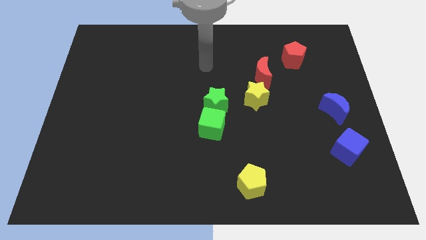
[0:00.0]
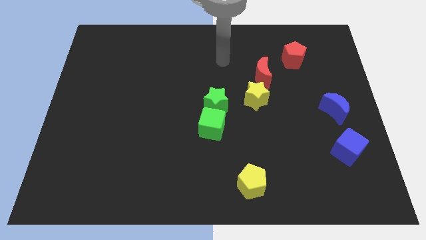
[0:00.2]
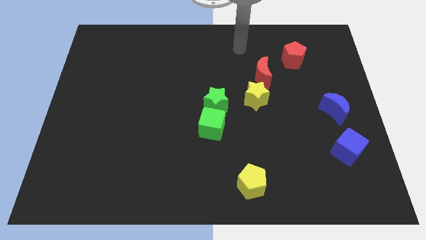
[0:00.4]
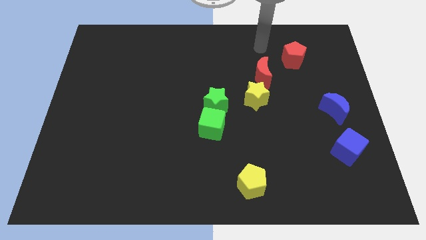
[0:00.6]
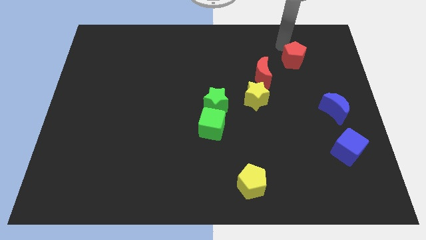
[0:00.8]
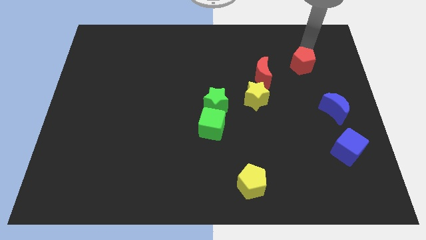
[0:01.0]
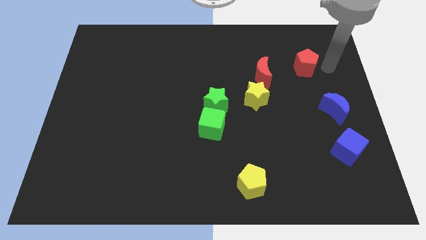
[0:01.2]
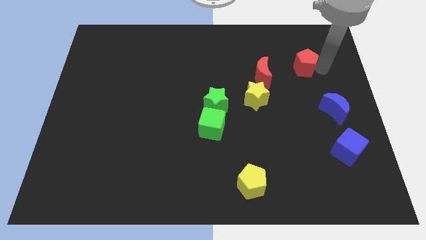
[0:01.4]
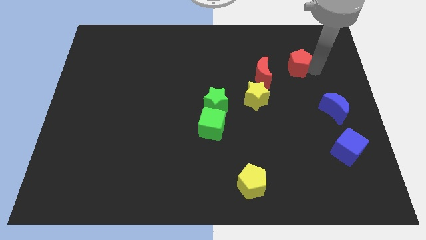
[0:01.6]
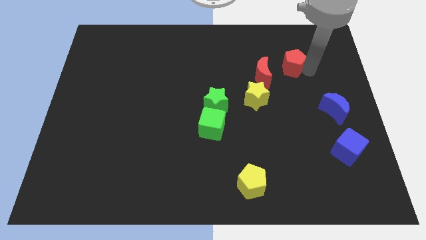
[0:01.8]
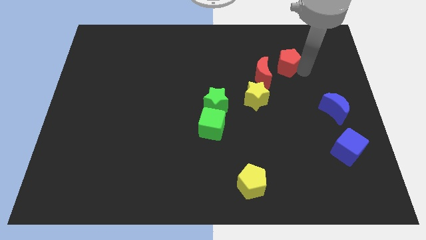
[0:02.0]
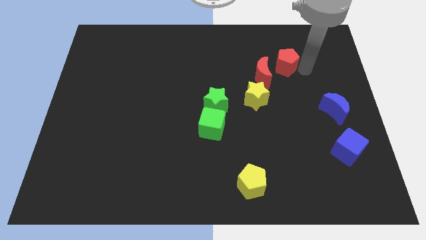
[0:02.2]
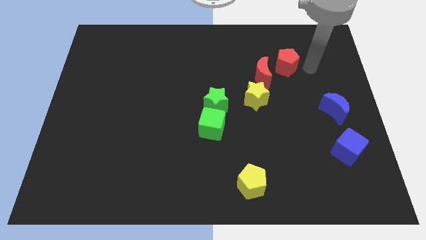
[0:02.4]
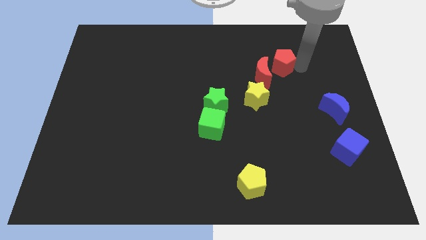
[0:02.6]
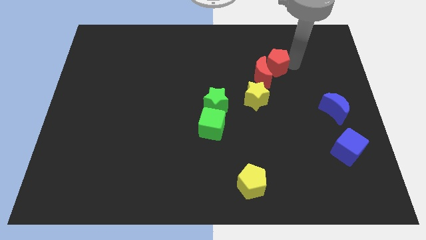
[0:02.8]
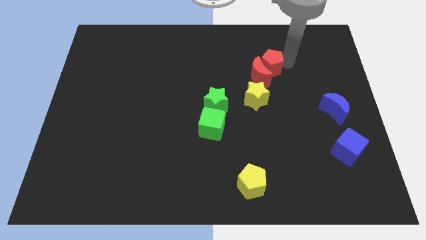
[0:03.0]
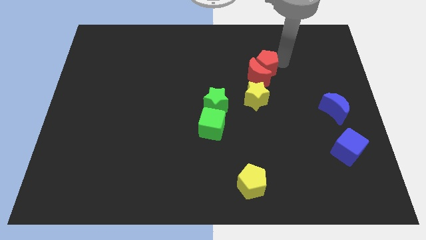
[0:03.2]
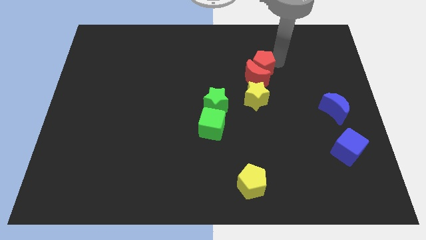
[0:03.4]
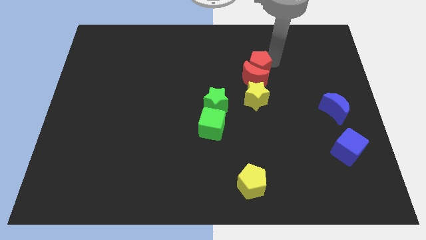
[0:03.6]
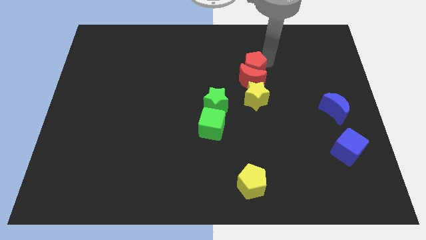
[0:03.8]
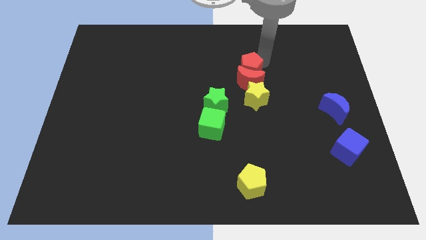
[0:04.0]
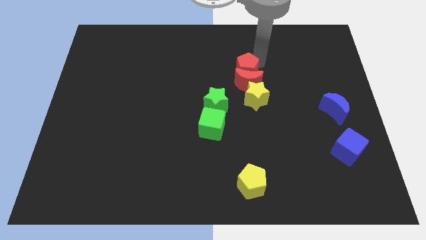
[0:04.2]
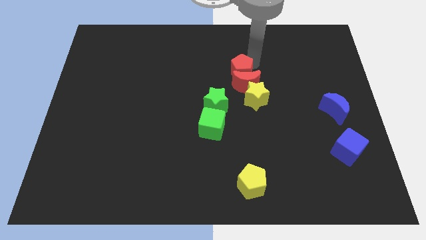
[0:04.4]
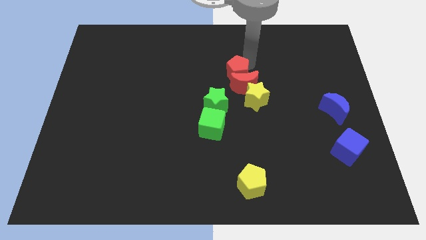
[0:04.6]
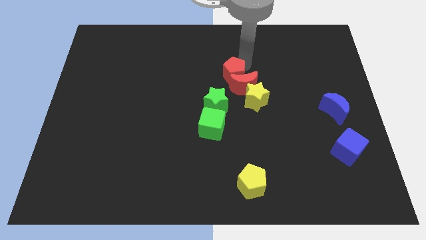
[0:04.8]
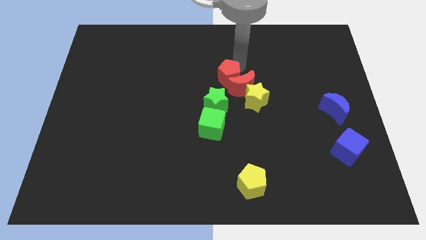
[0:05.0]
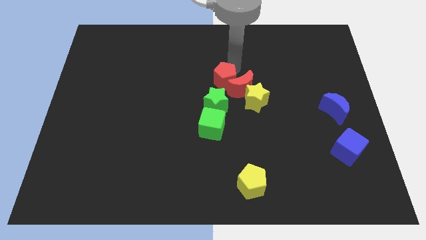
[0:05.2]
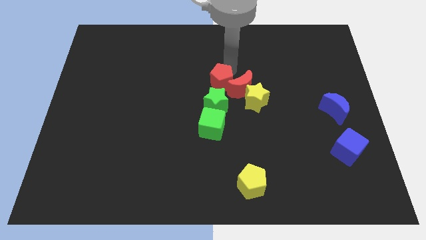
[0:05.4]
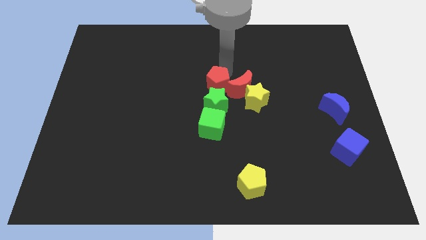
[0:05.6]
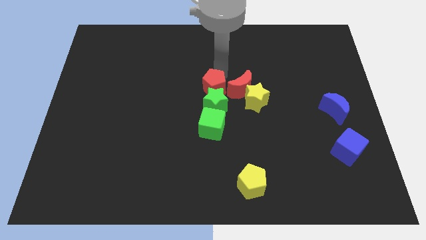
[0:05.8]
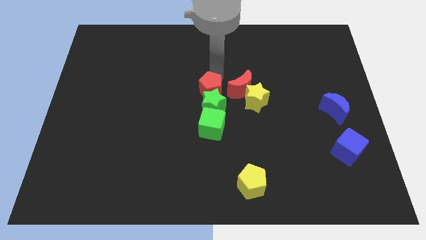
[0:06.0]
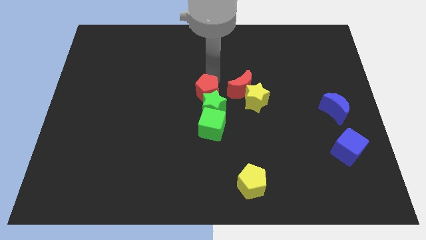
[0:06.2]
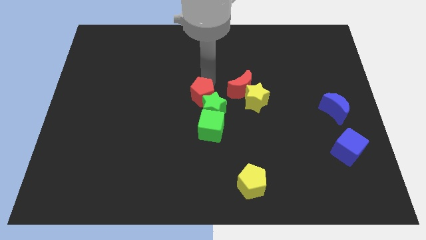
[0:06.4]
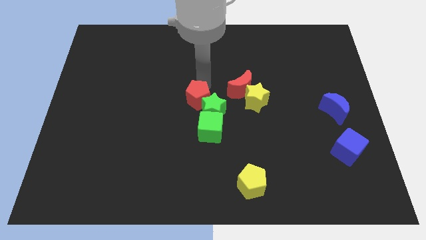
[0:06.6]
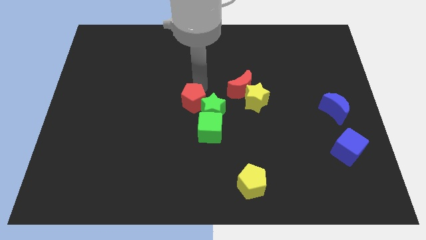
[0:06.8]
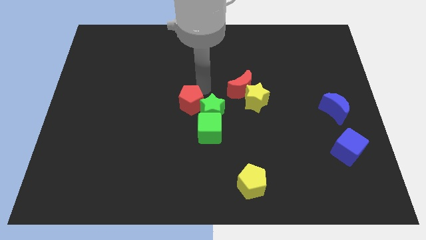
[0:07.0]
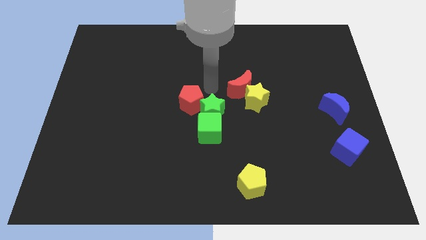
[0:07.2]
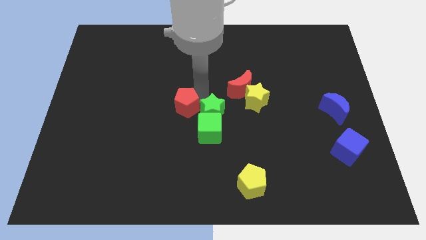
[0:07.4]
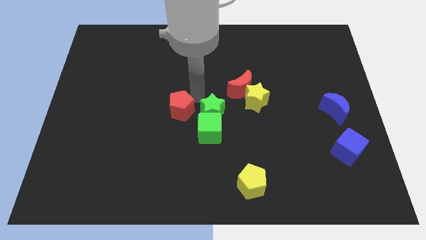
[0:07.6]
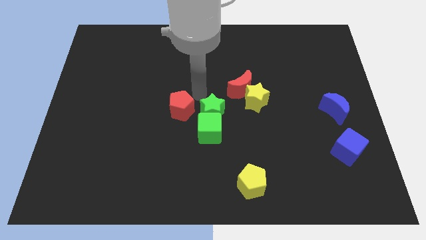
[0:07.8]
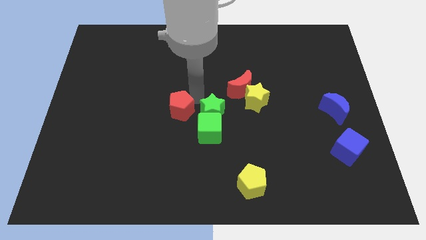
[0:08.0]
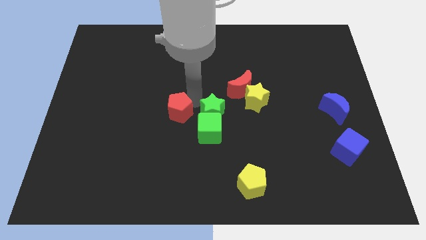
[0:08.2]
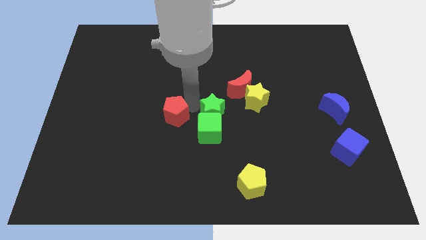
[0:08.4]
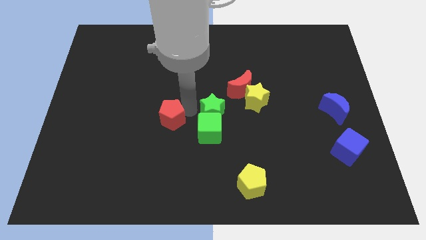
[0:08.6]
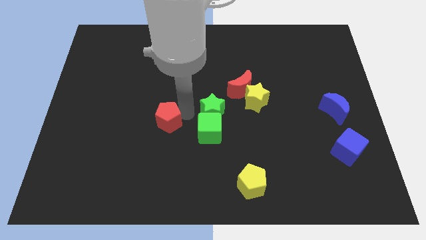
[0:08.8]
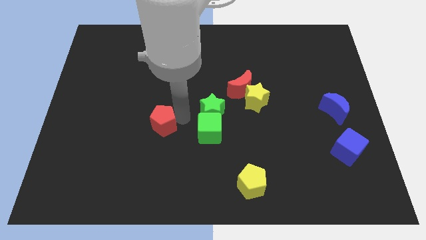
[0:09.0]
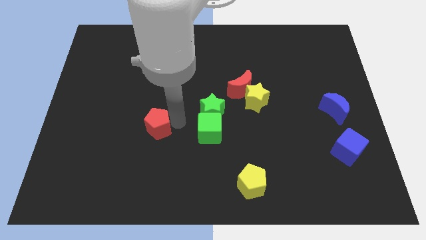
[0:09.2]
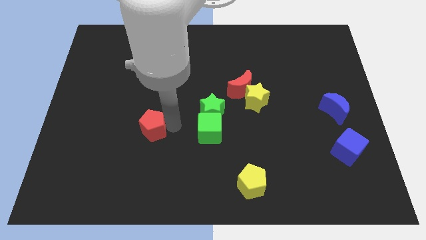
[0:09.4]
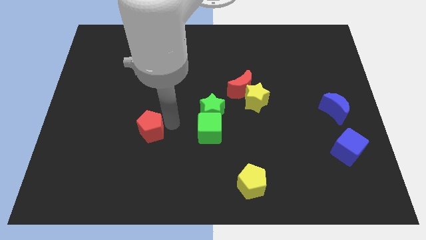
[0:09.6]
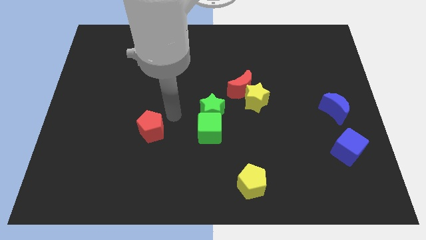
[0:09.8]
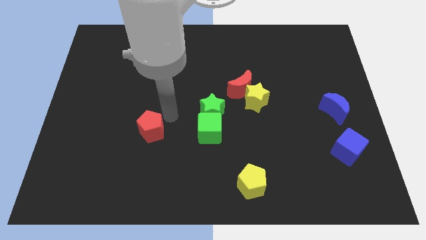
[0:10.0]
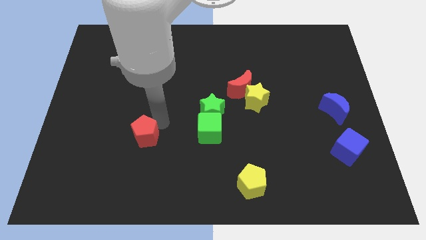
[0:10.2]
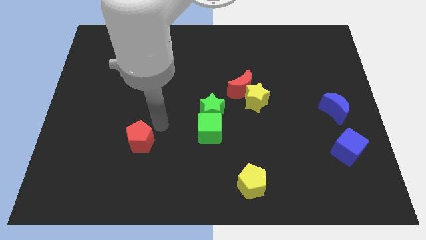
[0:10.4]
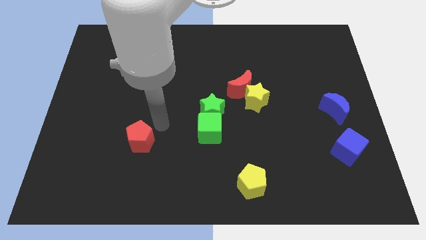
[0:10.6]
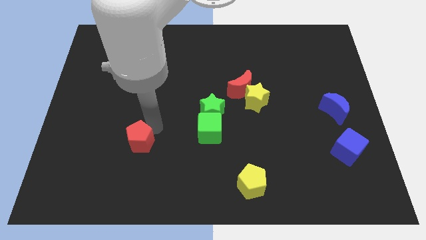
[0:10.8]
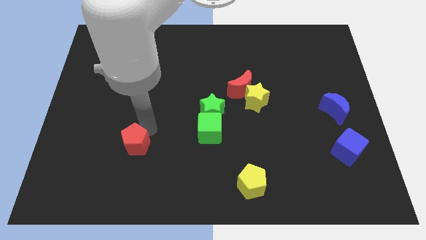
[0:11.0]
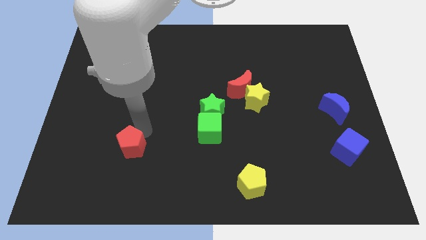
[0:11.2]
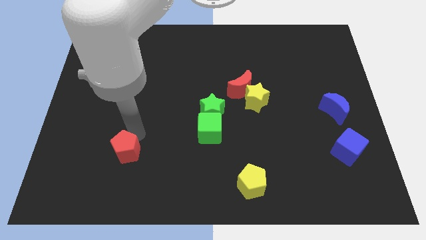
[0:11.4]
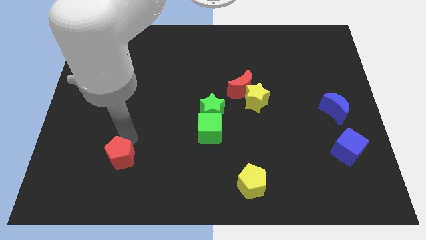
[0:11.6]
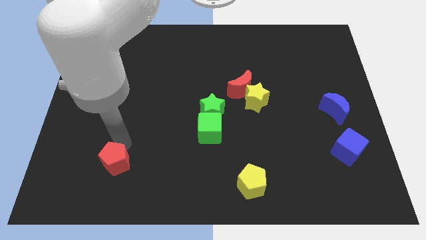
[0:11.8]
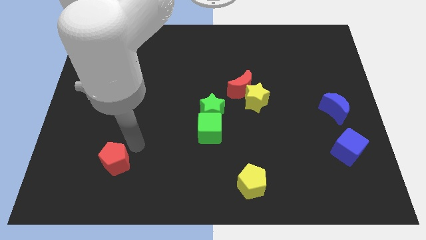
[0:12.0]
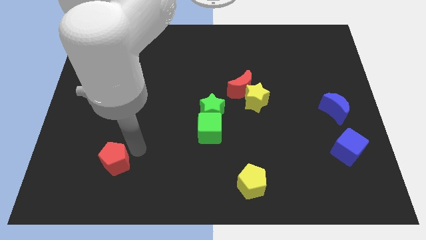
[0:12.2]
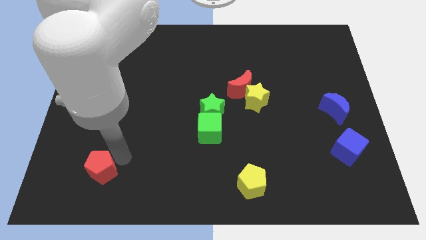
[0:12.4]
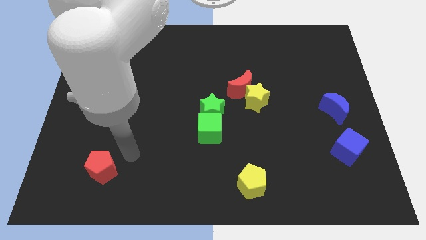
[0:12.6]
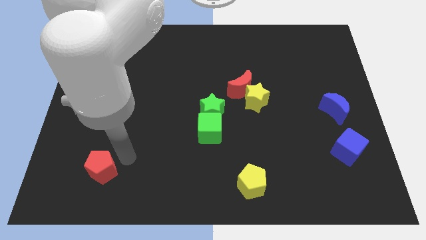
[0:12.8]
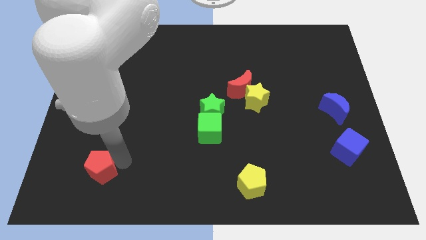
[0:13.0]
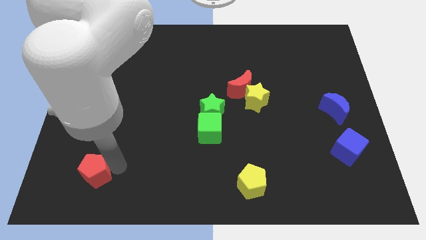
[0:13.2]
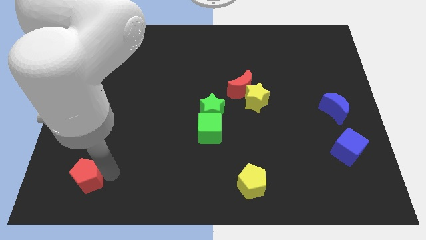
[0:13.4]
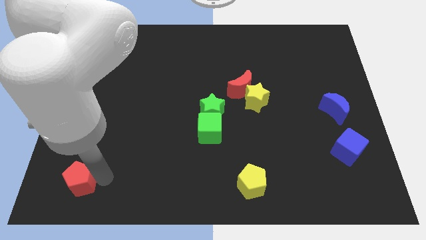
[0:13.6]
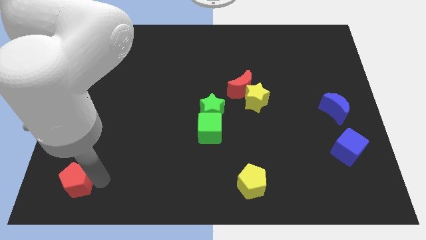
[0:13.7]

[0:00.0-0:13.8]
push the red pentagon to the bottom left corner
